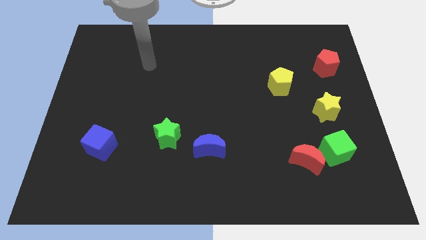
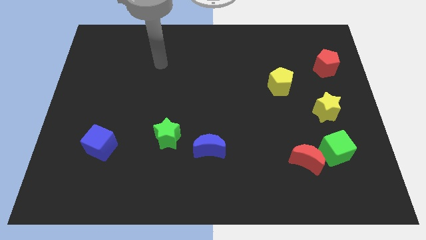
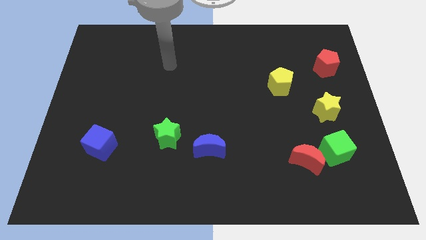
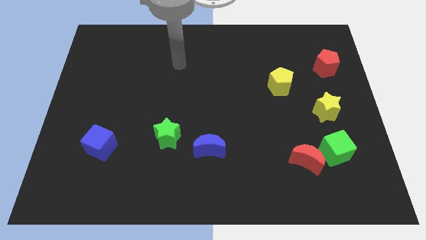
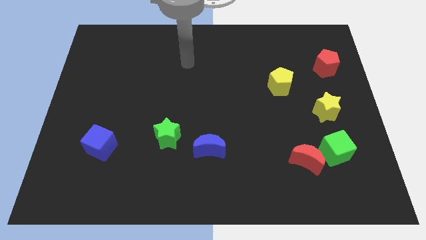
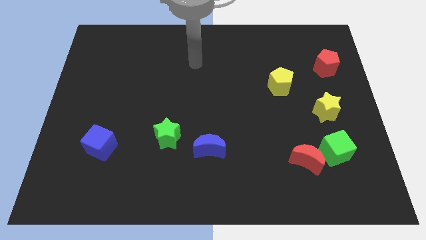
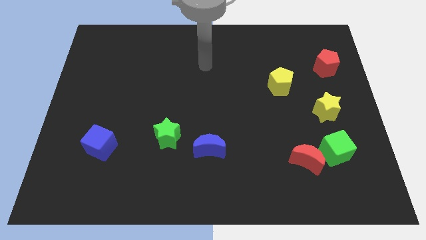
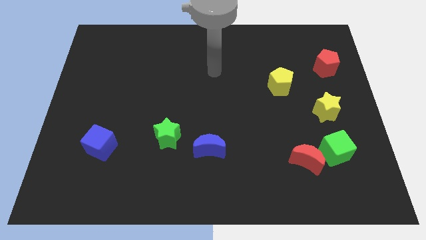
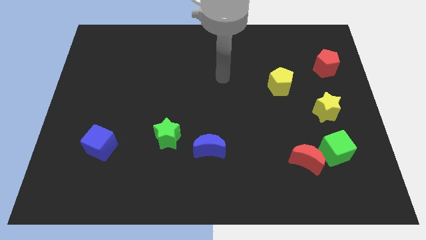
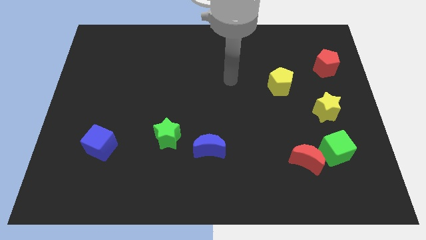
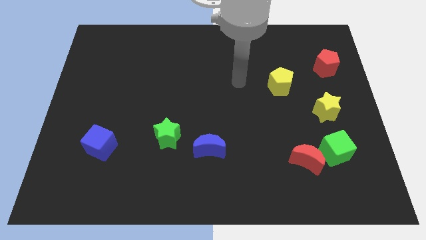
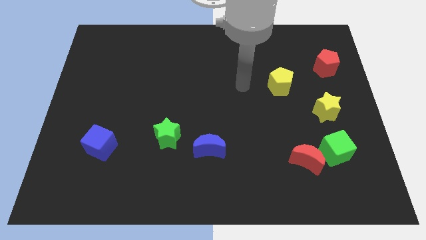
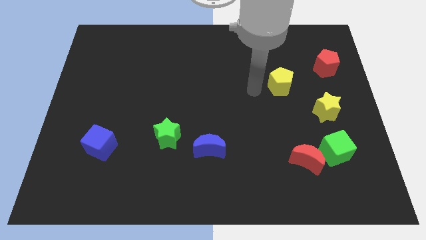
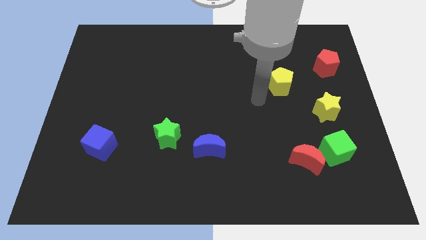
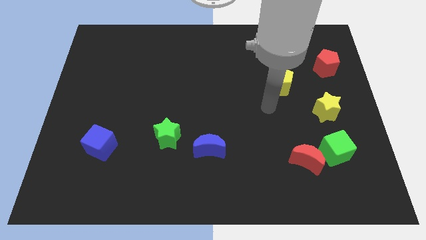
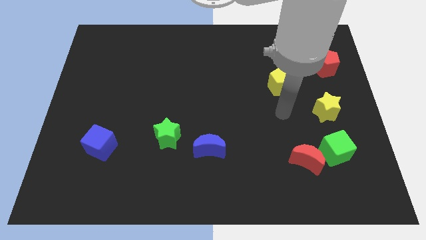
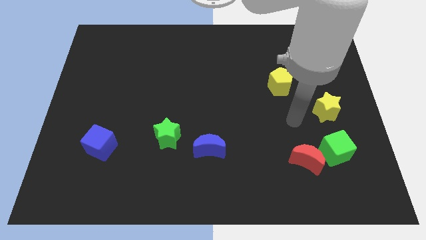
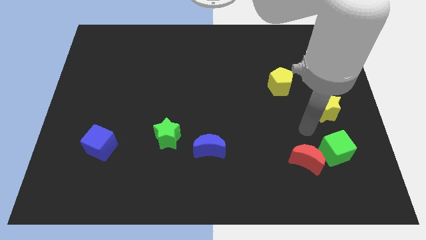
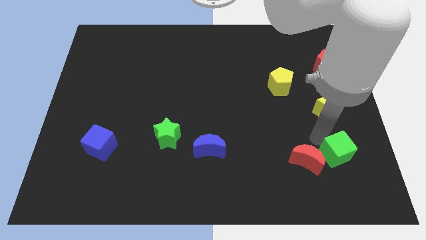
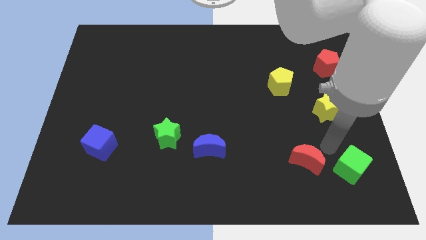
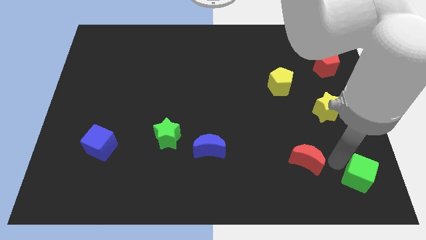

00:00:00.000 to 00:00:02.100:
separate the red moon from the green cube

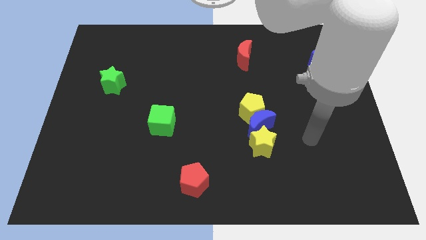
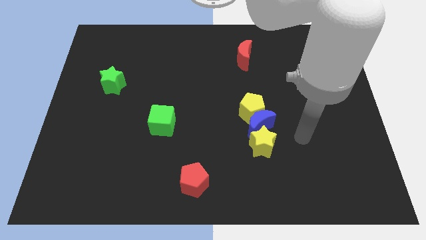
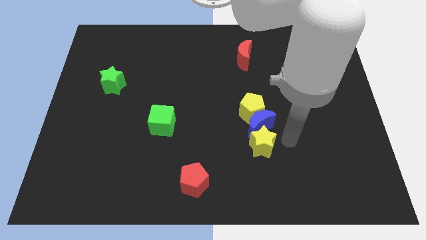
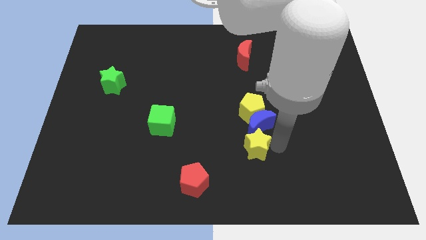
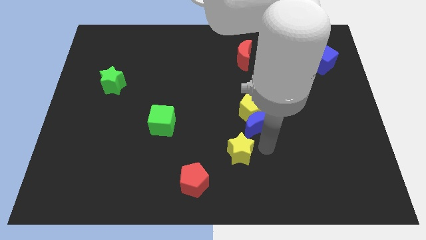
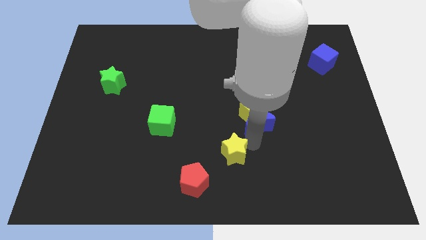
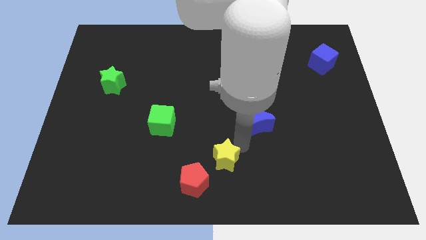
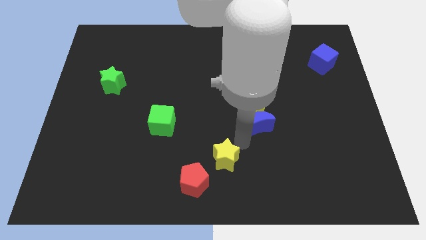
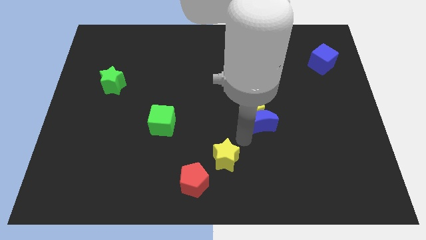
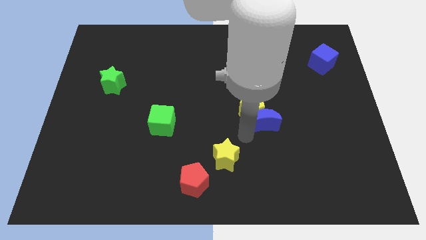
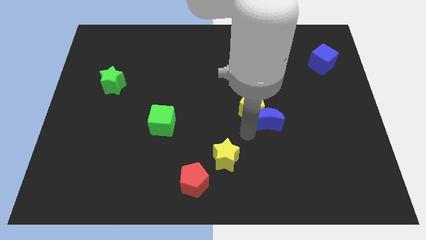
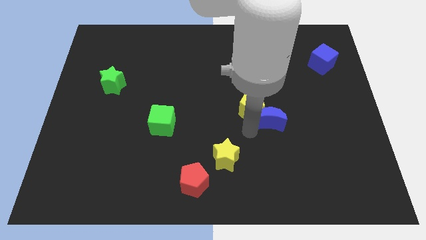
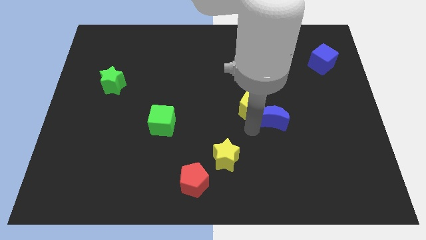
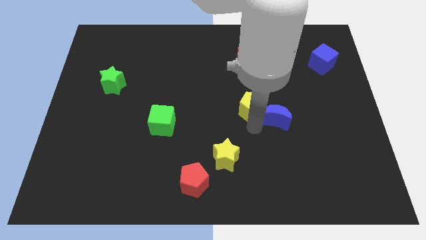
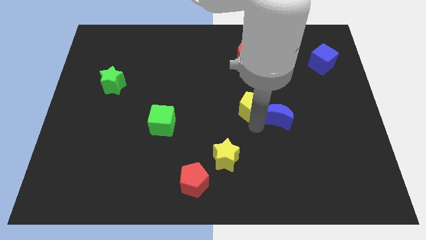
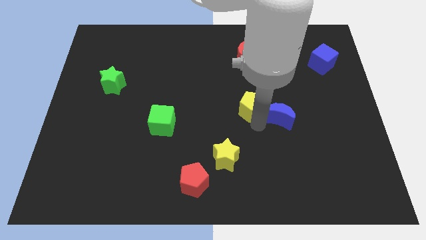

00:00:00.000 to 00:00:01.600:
separate the blue moon from the yellow pentagon and yellow star

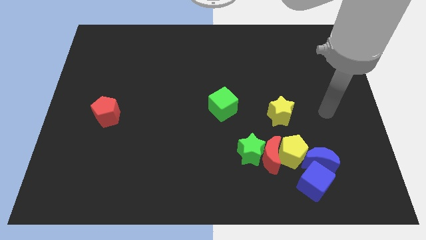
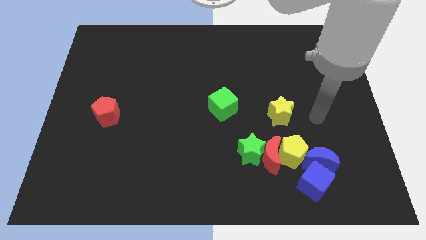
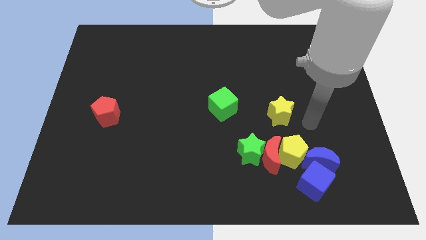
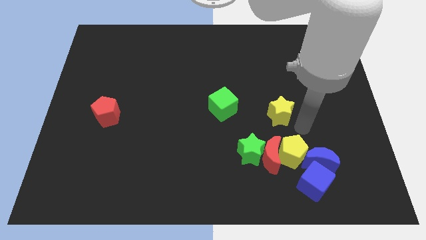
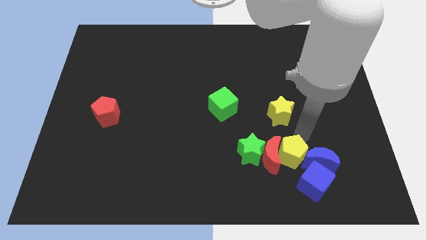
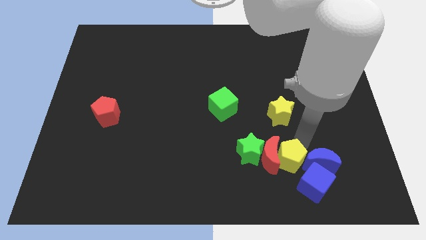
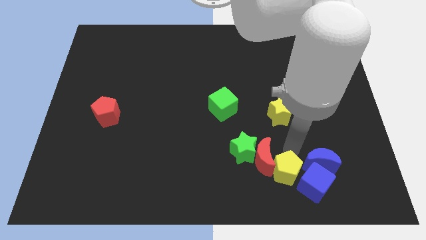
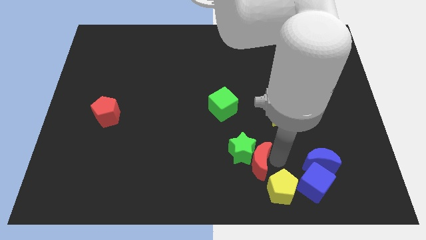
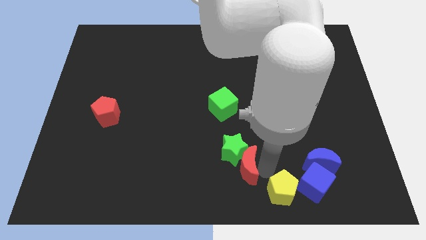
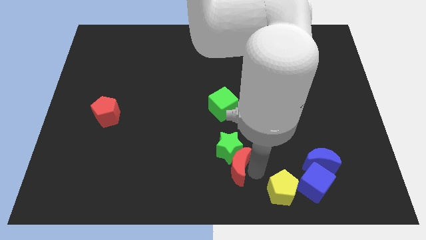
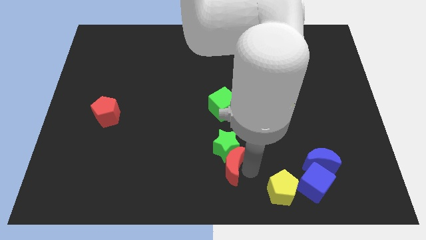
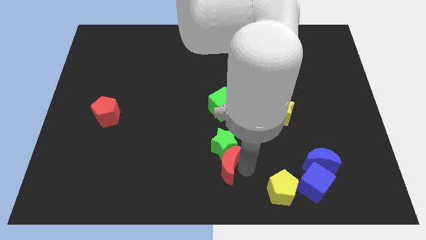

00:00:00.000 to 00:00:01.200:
separate the green star from the red moon and yellow pentagon

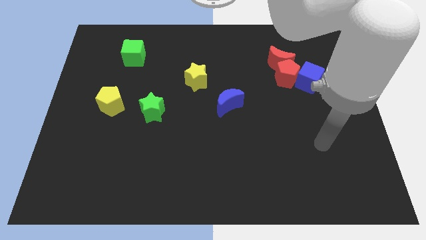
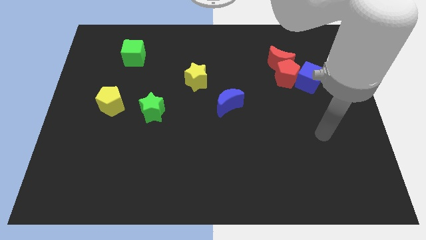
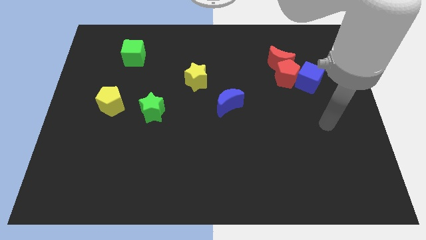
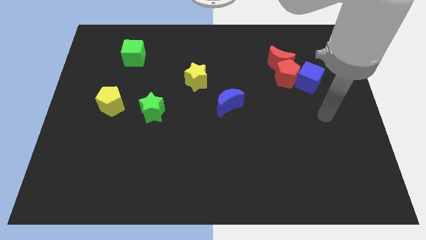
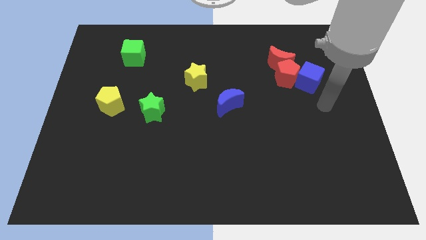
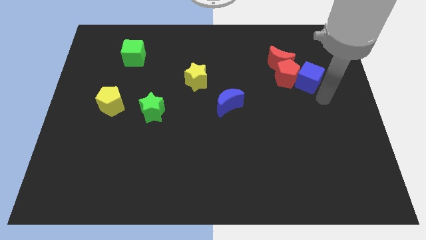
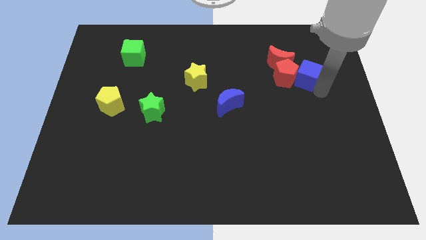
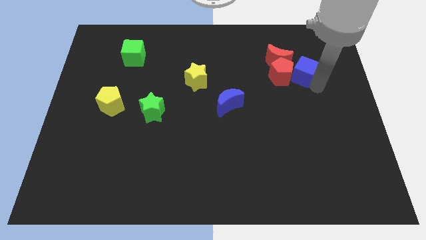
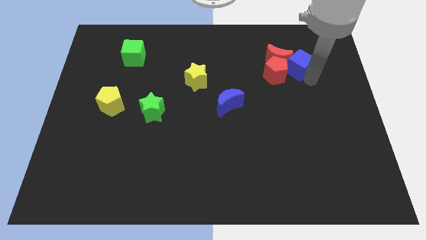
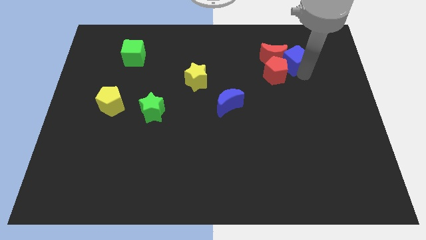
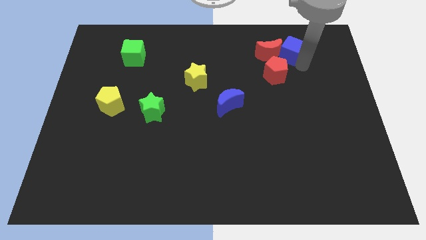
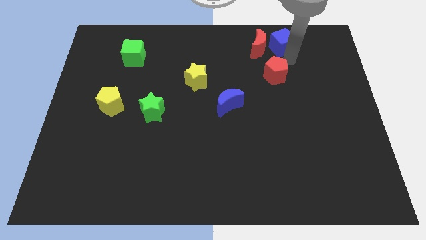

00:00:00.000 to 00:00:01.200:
pull the red pentagon apart from the red moon and blue cube

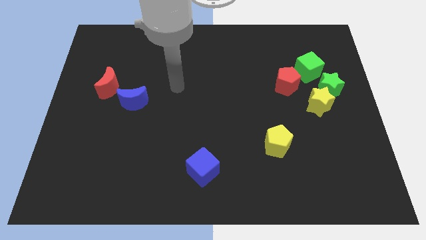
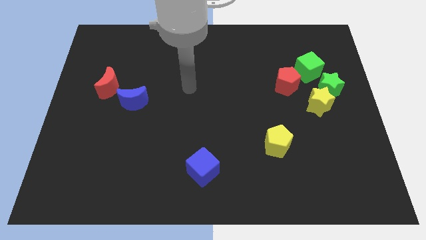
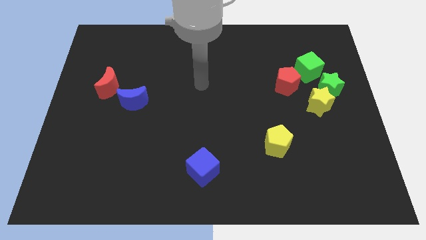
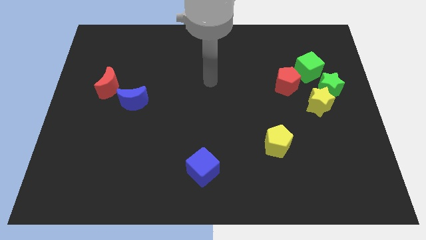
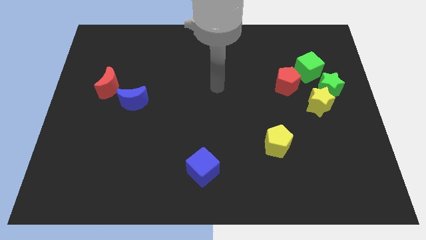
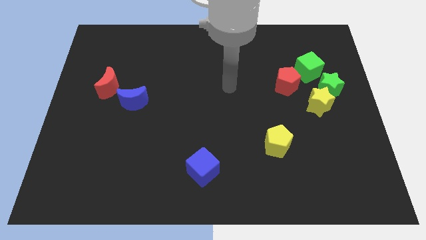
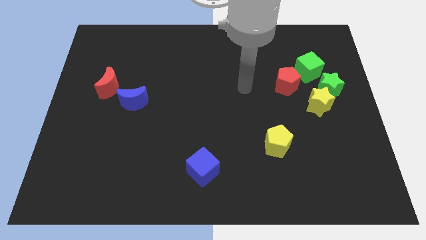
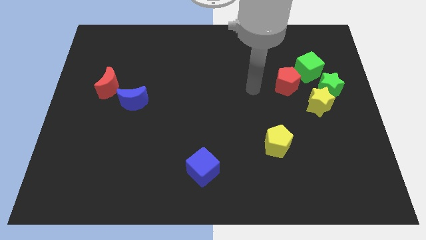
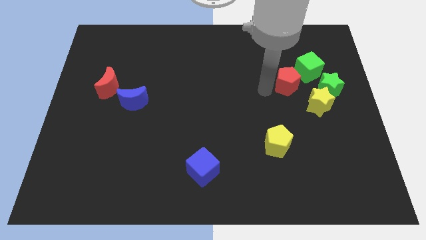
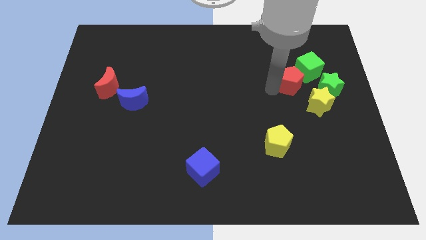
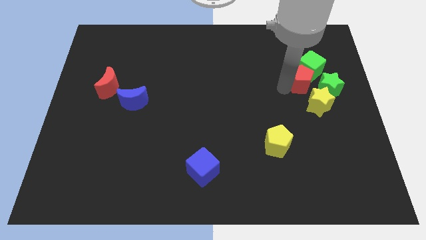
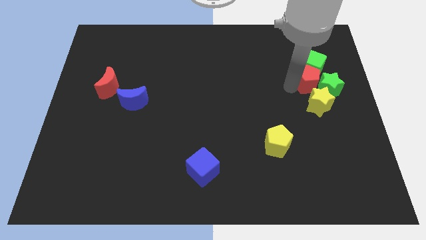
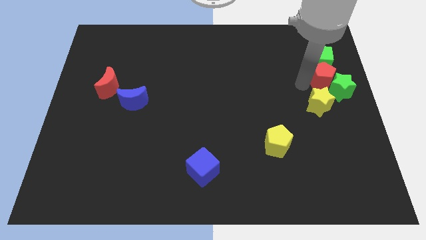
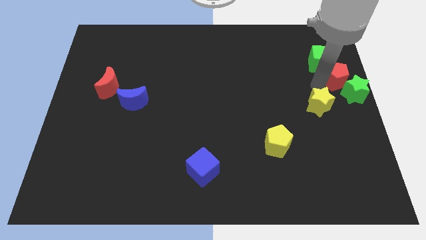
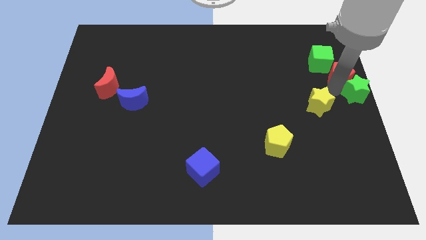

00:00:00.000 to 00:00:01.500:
pull the yellow star apart from the green star and red pentagon

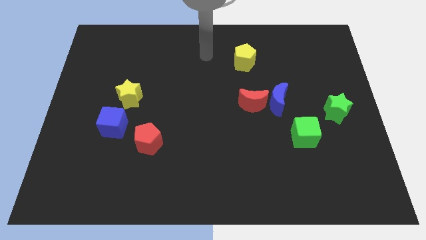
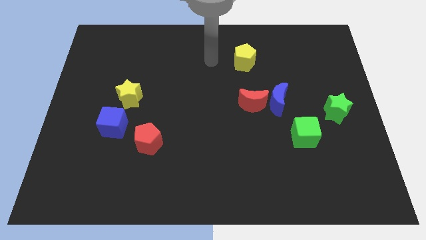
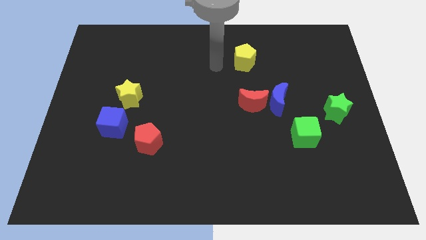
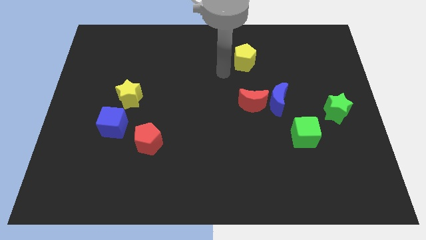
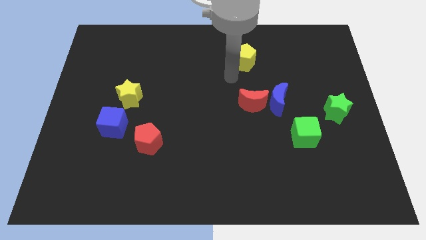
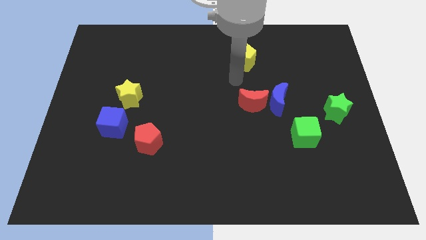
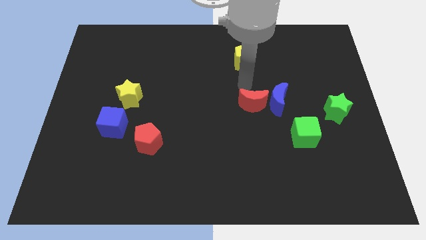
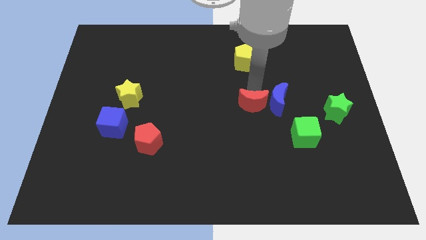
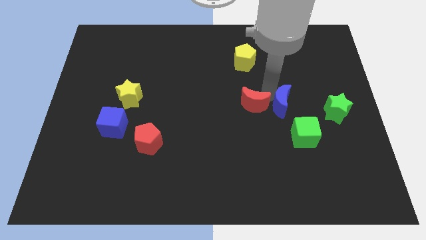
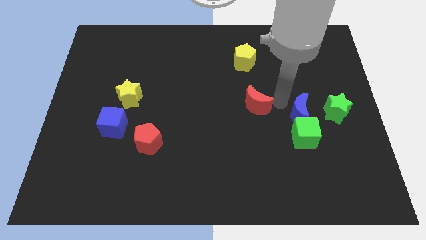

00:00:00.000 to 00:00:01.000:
separate the red moon from the blue moon

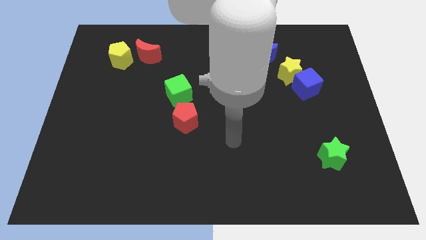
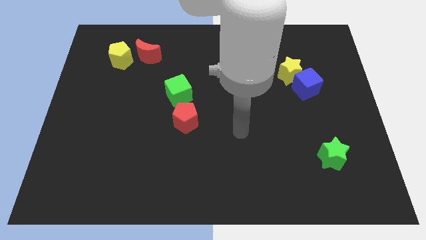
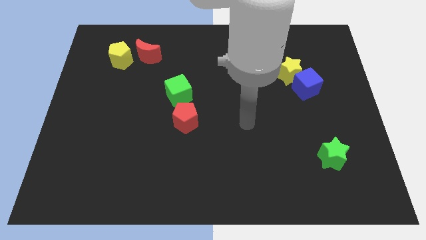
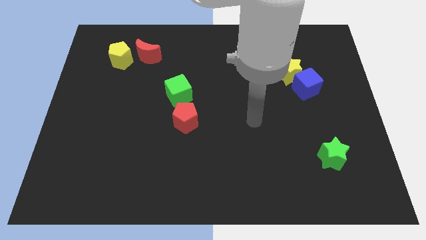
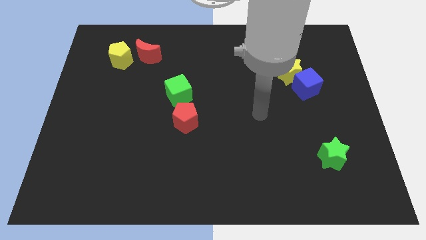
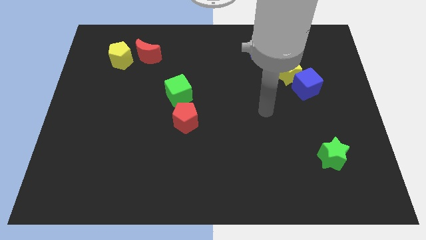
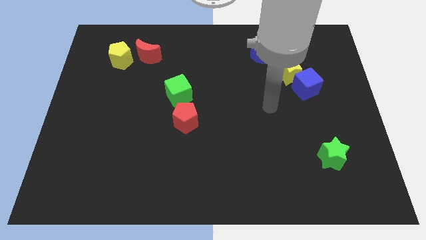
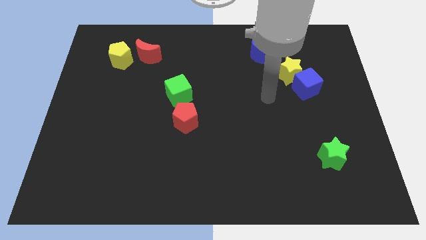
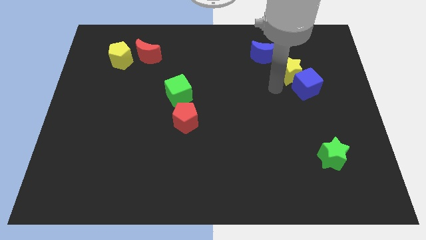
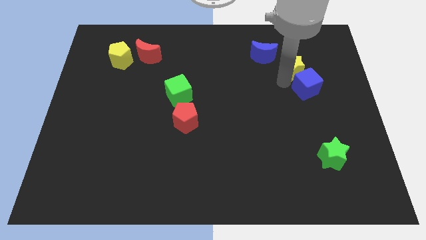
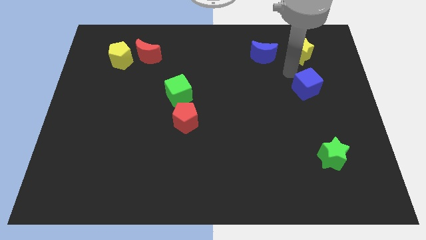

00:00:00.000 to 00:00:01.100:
separate the blue cube from the yellow star
